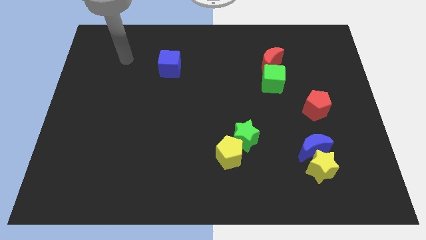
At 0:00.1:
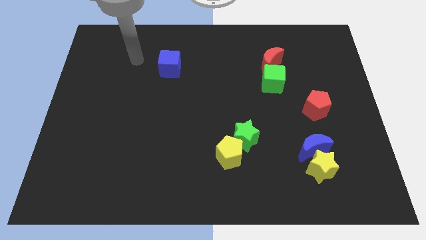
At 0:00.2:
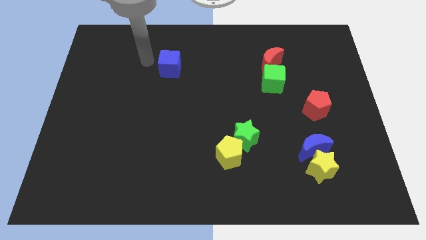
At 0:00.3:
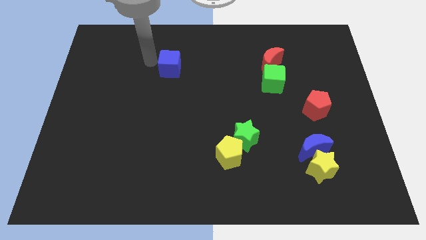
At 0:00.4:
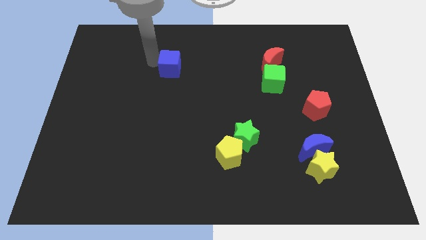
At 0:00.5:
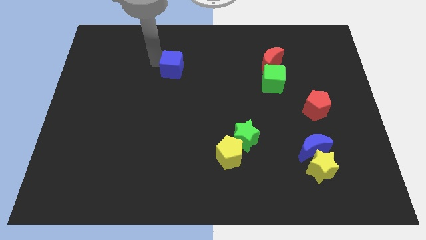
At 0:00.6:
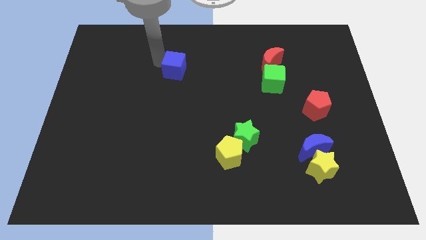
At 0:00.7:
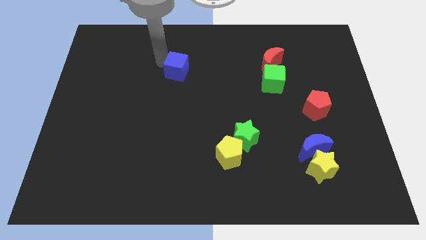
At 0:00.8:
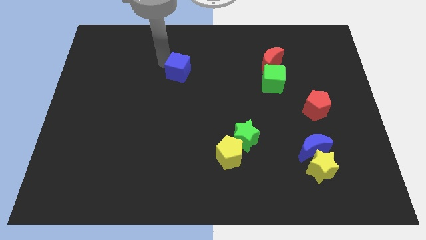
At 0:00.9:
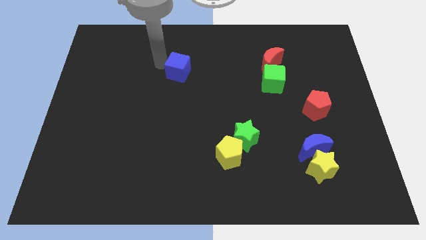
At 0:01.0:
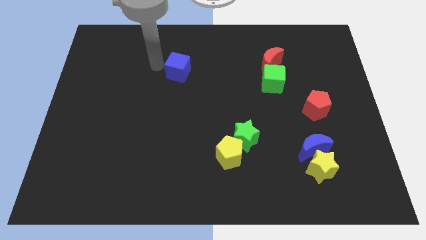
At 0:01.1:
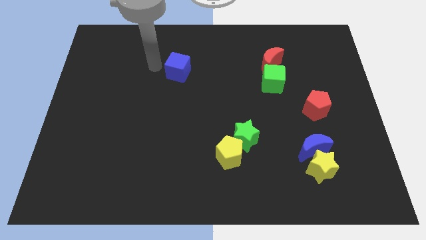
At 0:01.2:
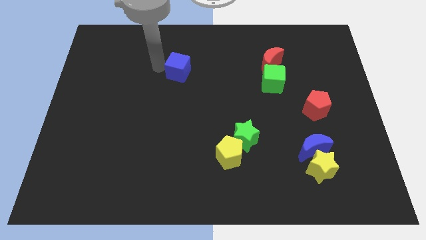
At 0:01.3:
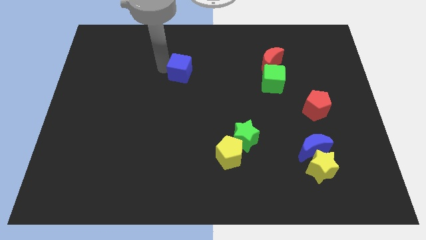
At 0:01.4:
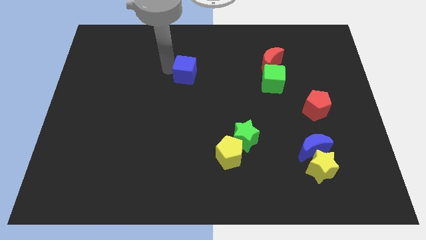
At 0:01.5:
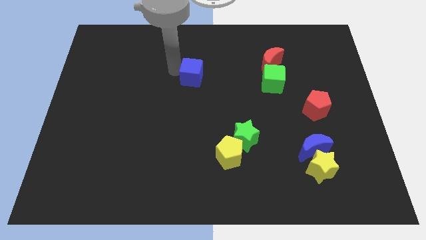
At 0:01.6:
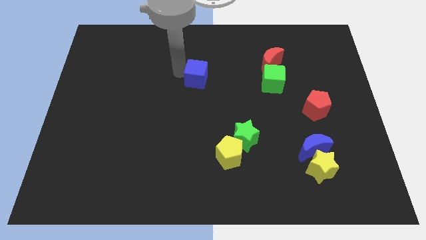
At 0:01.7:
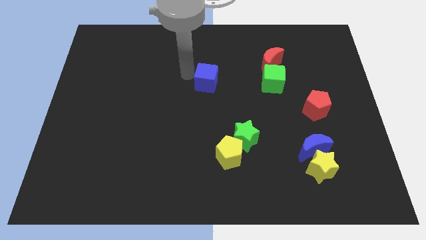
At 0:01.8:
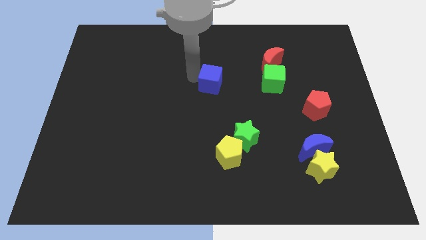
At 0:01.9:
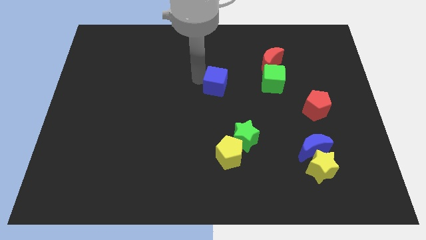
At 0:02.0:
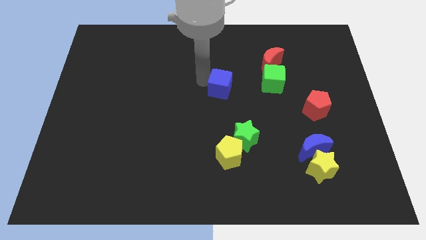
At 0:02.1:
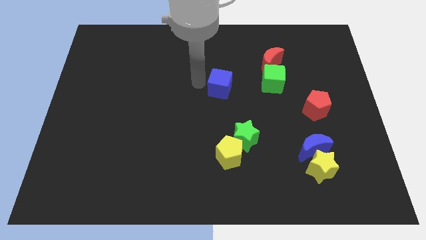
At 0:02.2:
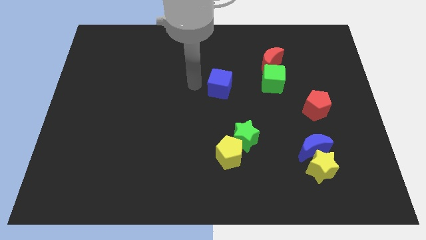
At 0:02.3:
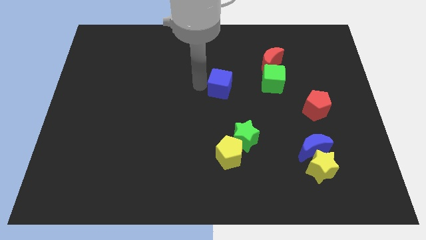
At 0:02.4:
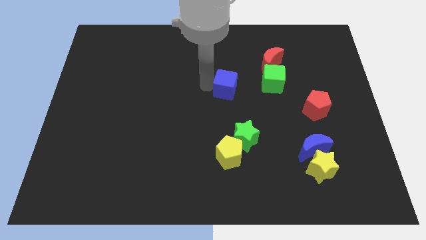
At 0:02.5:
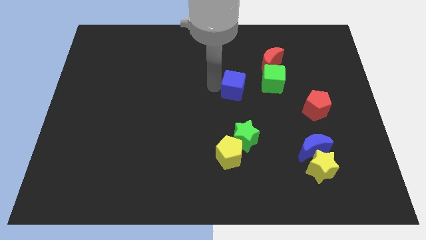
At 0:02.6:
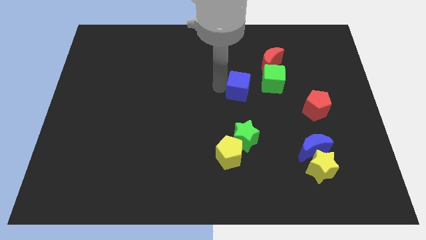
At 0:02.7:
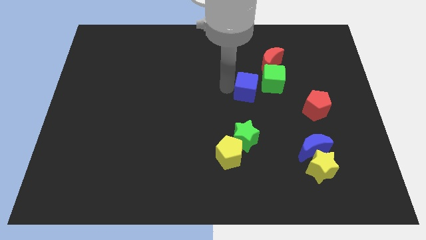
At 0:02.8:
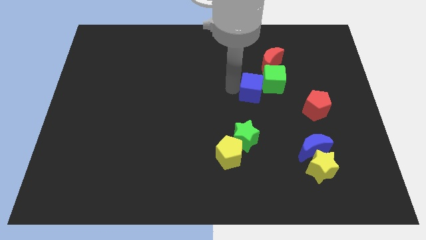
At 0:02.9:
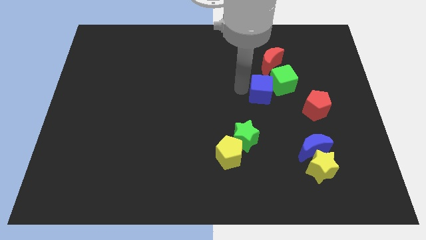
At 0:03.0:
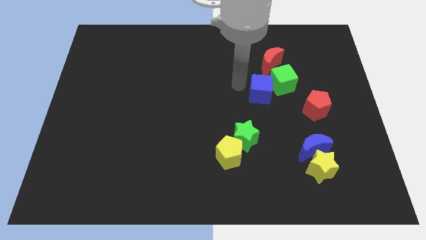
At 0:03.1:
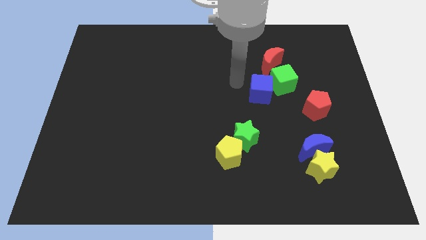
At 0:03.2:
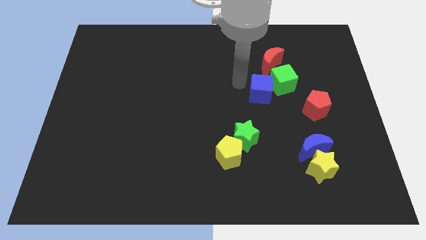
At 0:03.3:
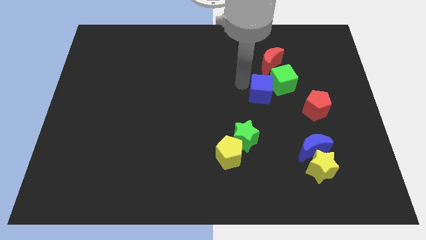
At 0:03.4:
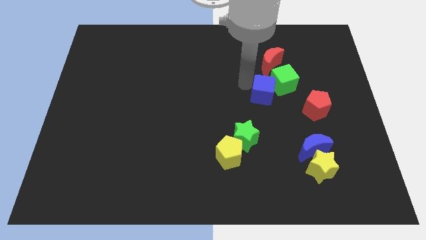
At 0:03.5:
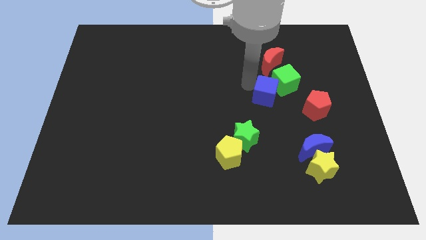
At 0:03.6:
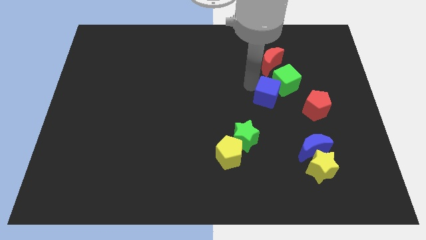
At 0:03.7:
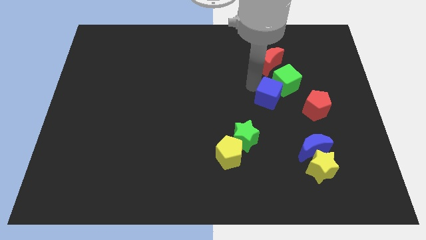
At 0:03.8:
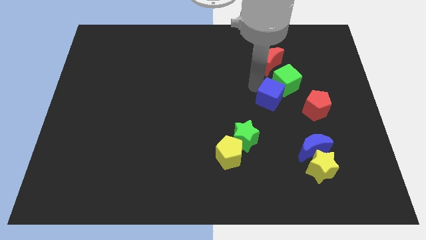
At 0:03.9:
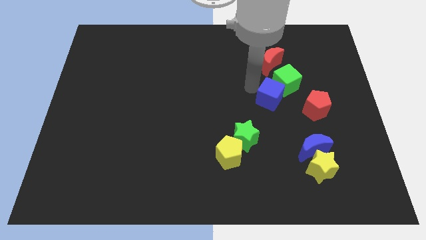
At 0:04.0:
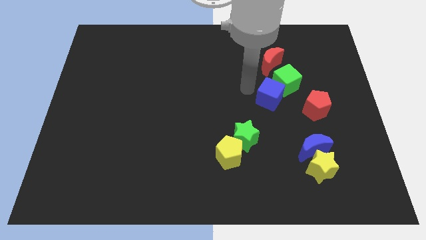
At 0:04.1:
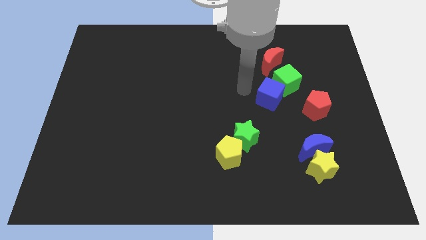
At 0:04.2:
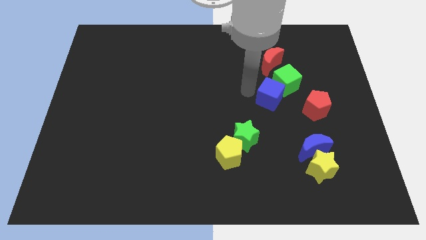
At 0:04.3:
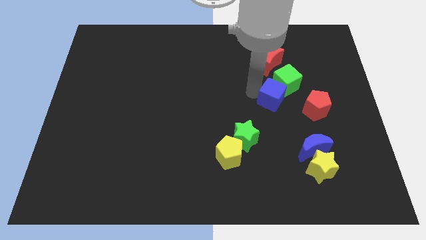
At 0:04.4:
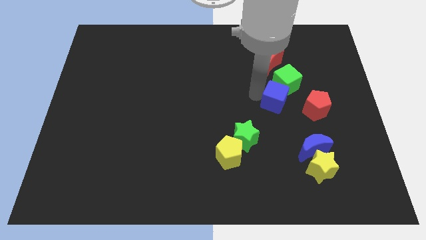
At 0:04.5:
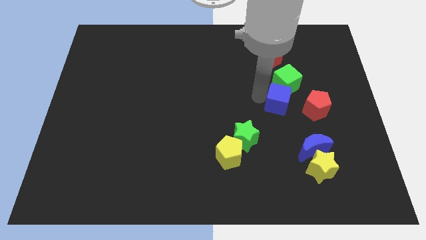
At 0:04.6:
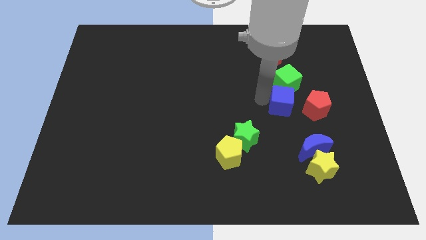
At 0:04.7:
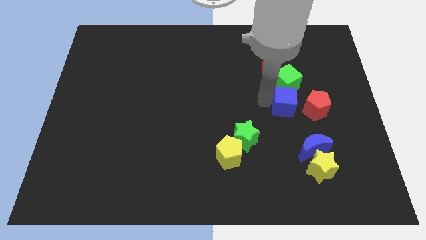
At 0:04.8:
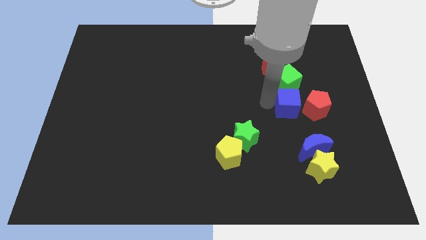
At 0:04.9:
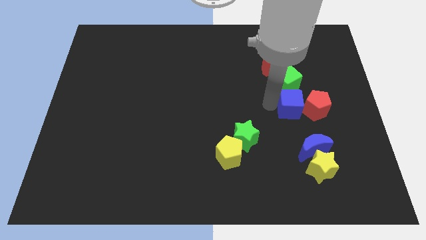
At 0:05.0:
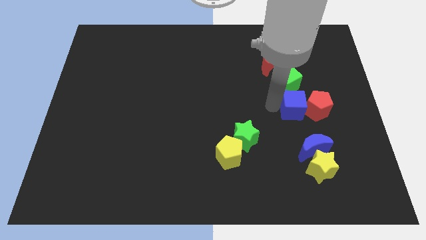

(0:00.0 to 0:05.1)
move the blue cube to the bottom right side of the green cube

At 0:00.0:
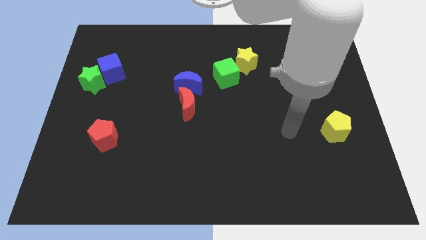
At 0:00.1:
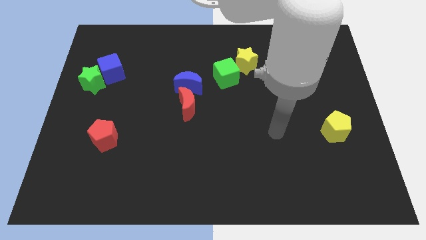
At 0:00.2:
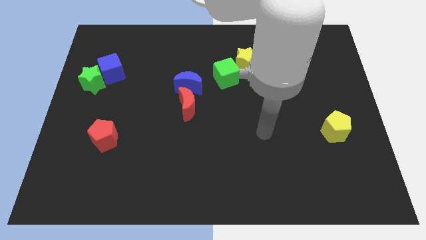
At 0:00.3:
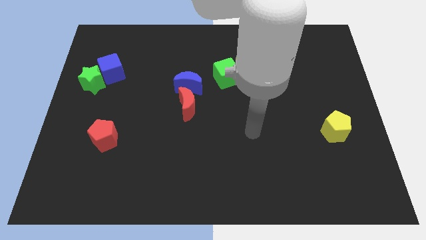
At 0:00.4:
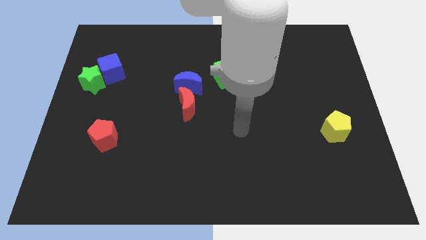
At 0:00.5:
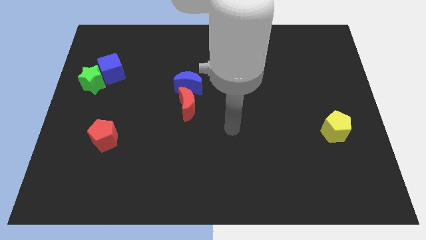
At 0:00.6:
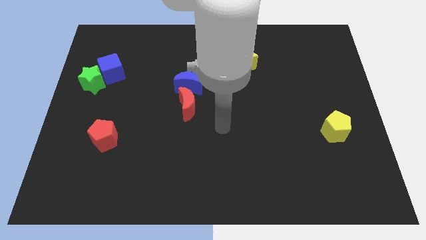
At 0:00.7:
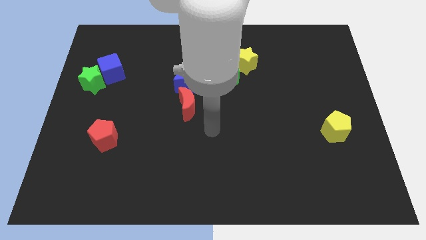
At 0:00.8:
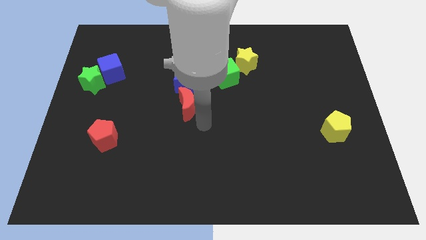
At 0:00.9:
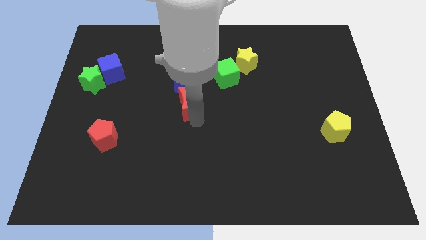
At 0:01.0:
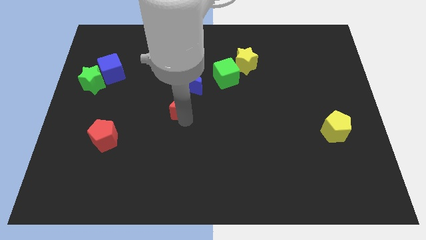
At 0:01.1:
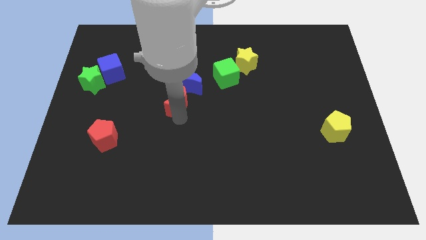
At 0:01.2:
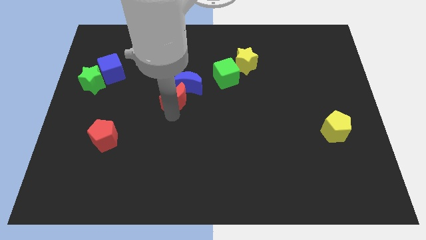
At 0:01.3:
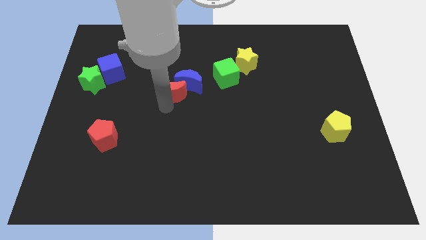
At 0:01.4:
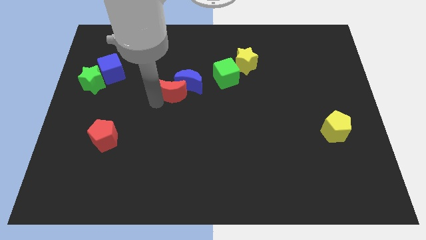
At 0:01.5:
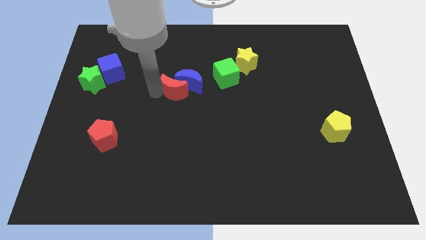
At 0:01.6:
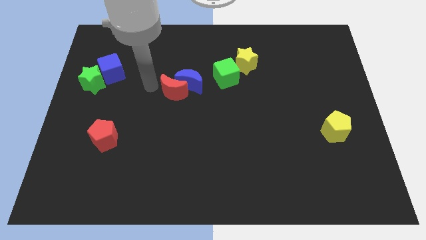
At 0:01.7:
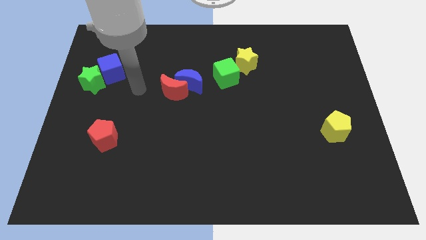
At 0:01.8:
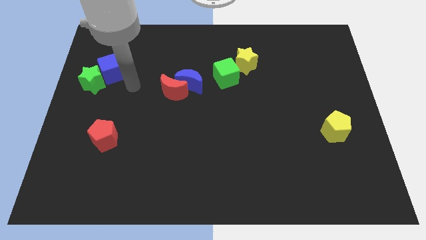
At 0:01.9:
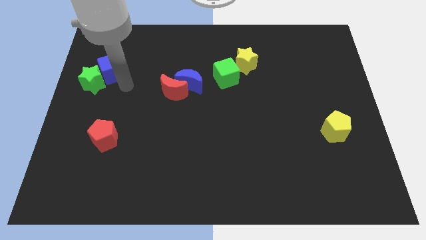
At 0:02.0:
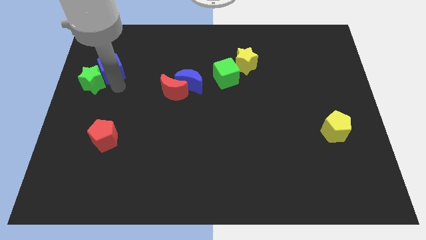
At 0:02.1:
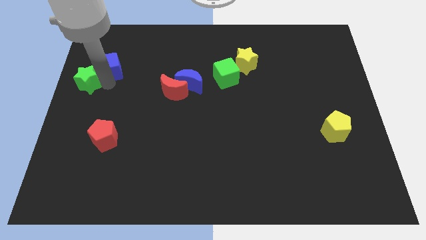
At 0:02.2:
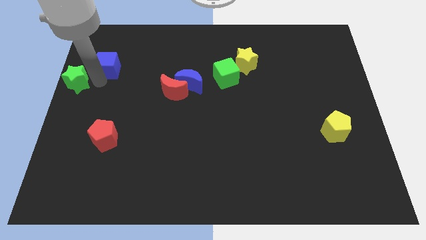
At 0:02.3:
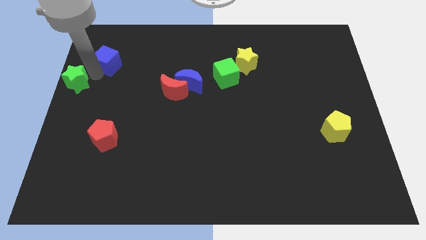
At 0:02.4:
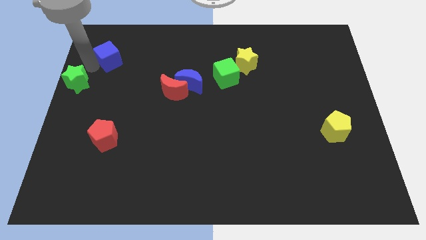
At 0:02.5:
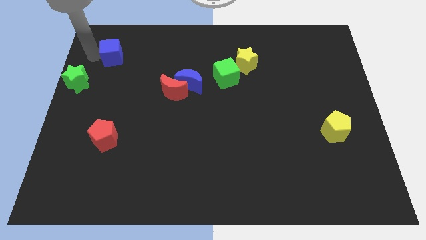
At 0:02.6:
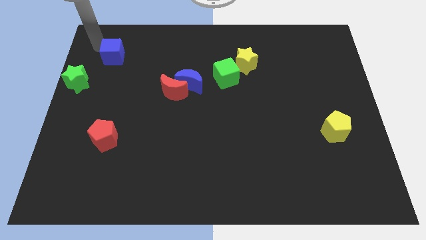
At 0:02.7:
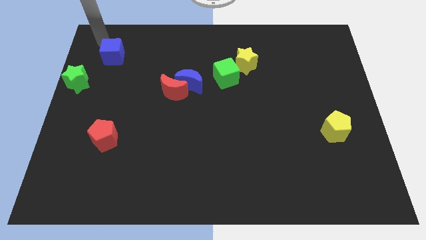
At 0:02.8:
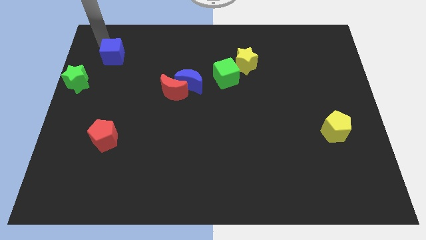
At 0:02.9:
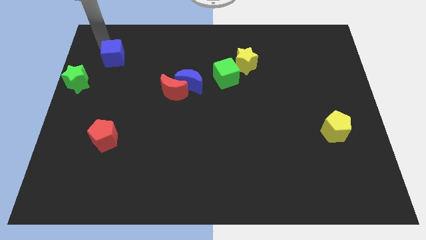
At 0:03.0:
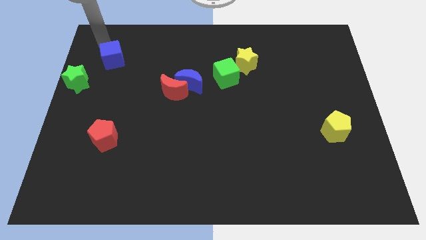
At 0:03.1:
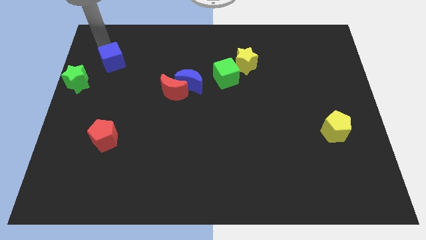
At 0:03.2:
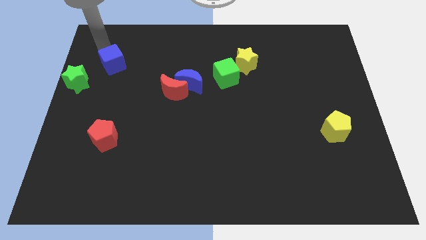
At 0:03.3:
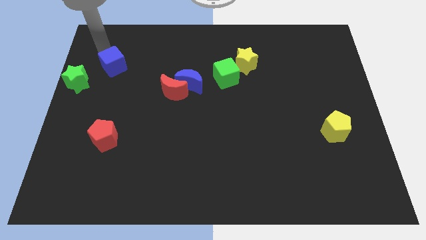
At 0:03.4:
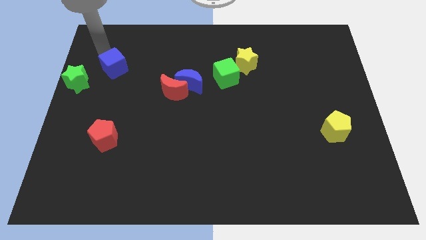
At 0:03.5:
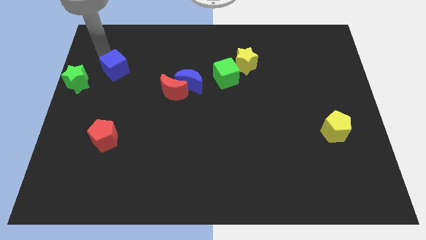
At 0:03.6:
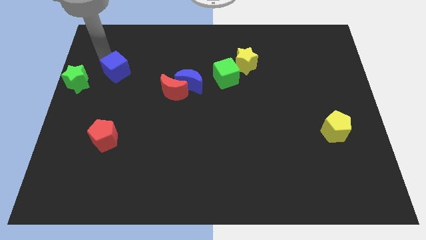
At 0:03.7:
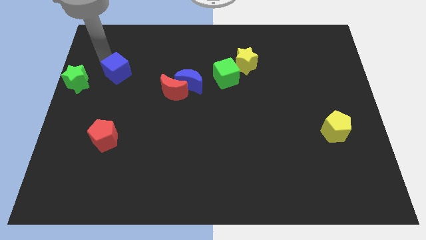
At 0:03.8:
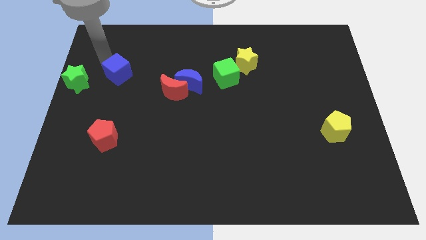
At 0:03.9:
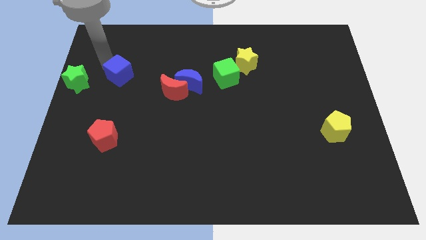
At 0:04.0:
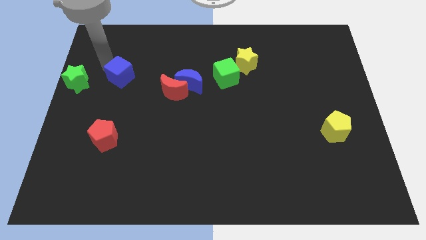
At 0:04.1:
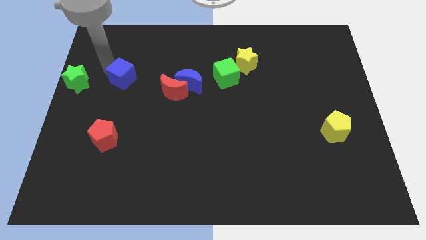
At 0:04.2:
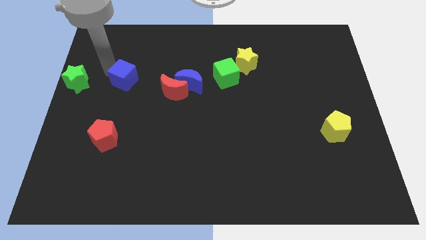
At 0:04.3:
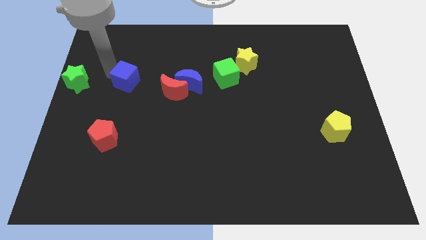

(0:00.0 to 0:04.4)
put the blue cube to the left of the blue moon
